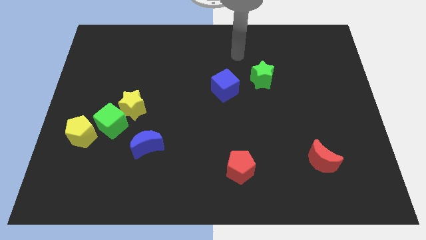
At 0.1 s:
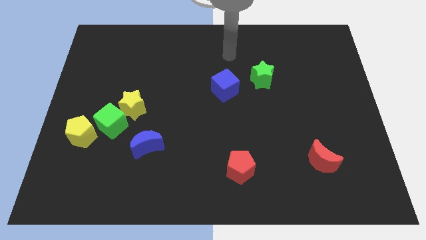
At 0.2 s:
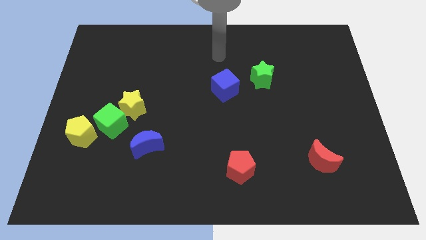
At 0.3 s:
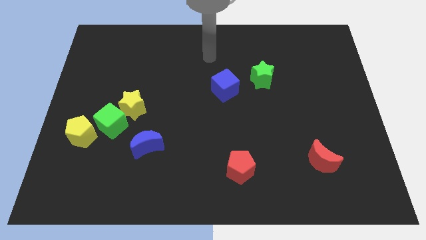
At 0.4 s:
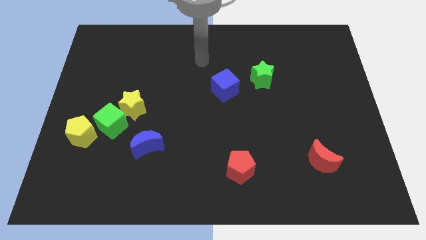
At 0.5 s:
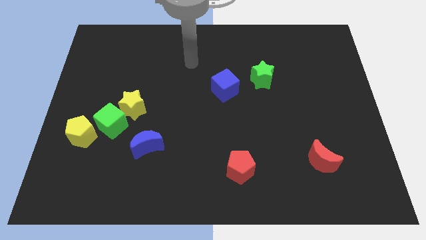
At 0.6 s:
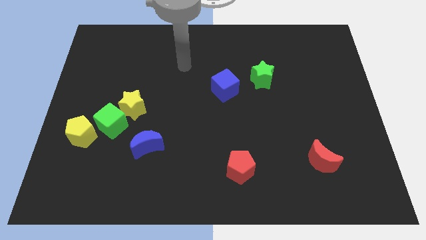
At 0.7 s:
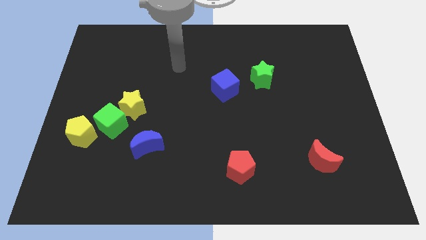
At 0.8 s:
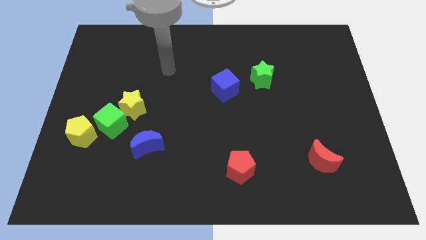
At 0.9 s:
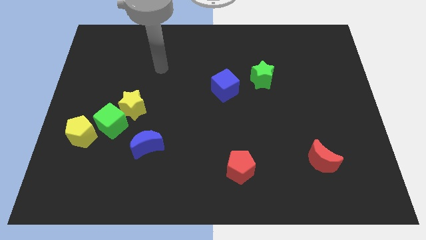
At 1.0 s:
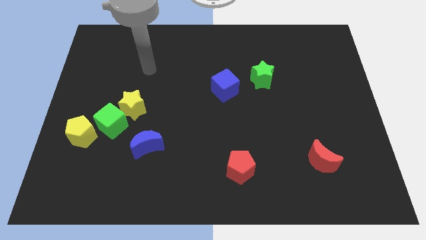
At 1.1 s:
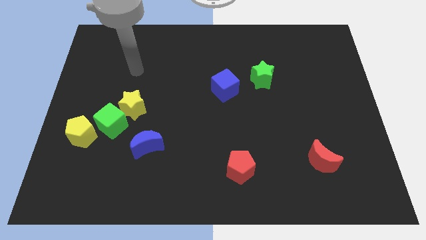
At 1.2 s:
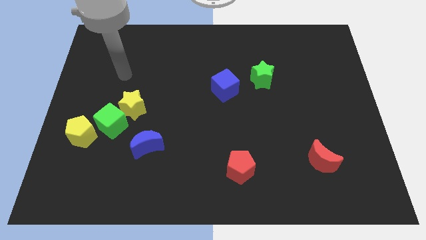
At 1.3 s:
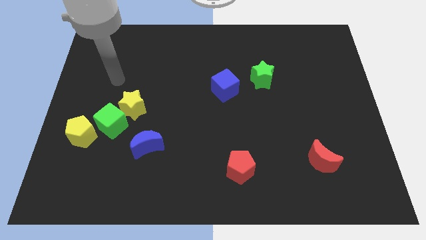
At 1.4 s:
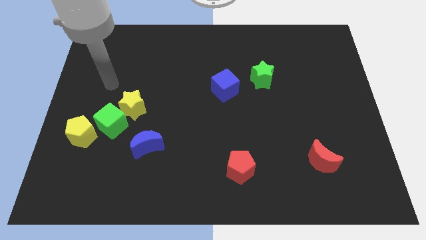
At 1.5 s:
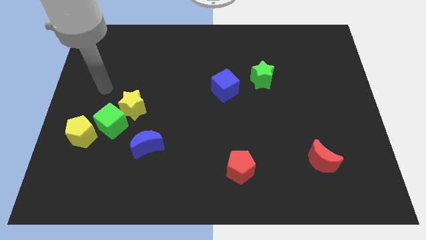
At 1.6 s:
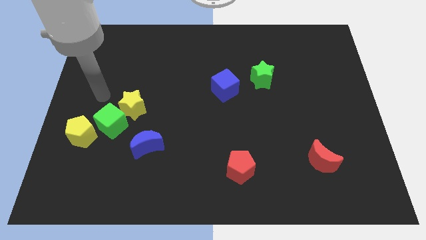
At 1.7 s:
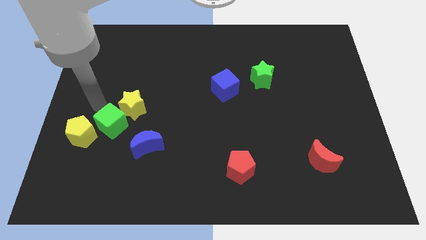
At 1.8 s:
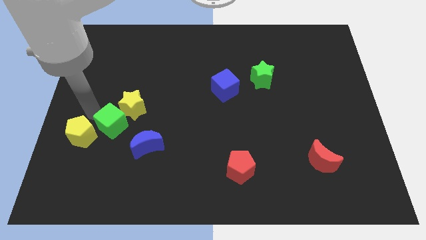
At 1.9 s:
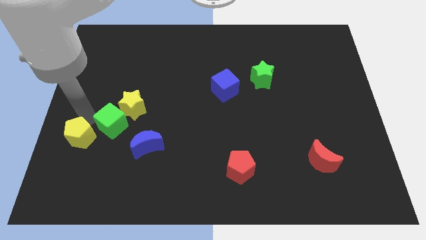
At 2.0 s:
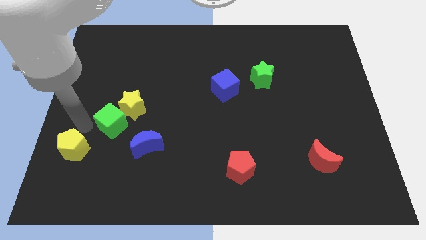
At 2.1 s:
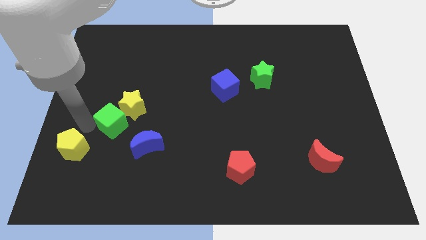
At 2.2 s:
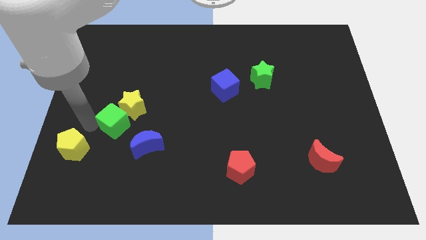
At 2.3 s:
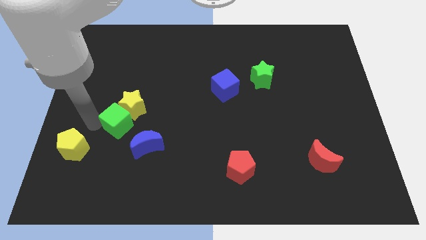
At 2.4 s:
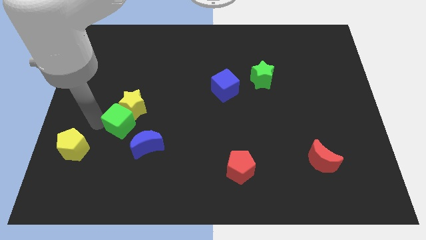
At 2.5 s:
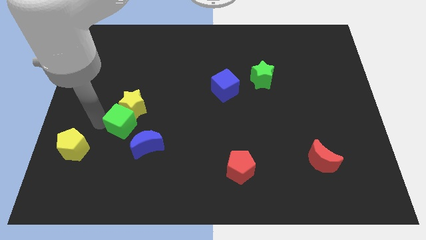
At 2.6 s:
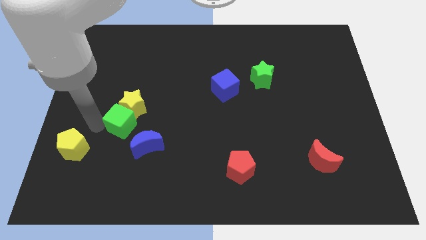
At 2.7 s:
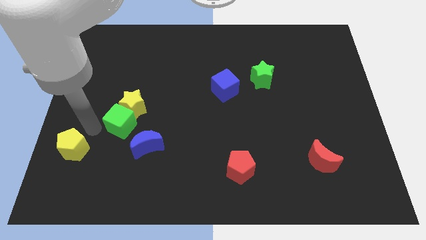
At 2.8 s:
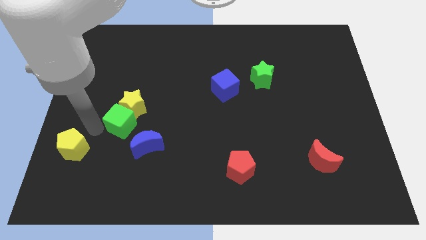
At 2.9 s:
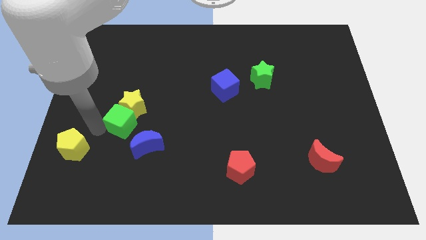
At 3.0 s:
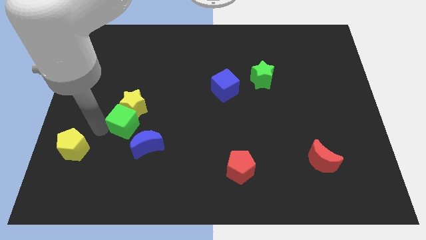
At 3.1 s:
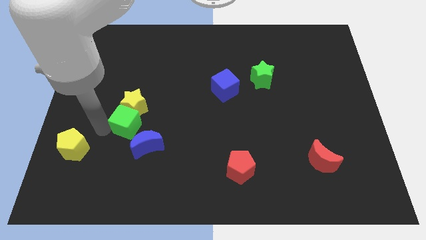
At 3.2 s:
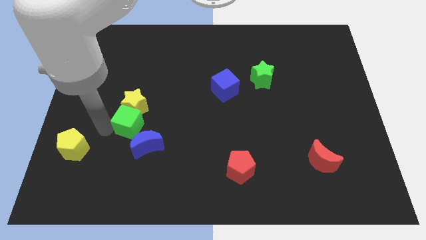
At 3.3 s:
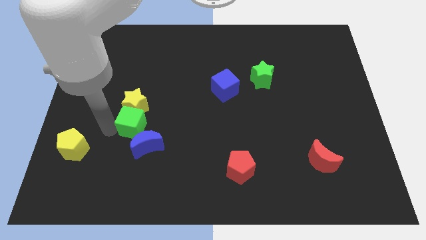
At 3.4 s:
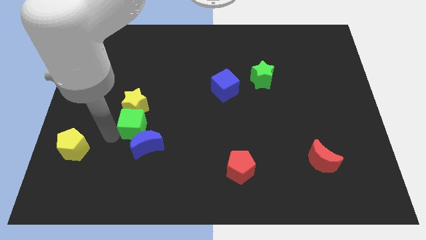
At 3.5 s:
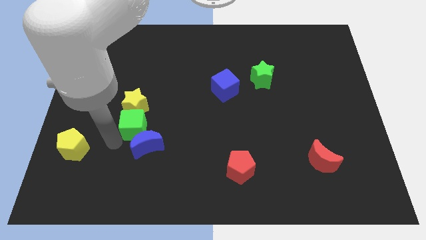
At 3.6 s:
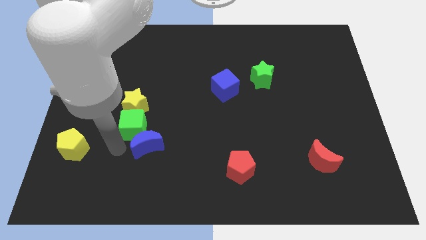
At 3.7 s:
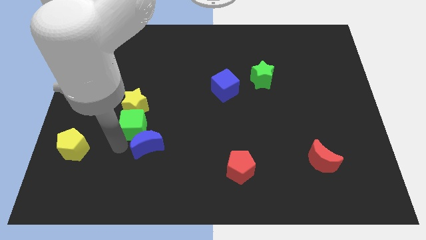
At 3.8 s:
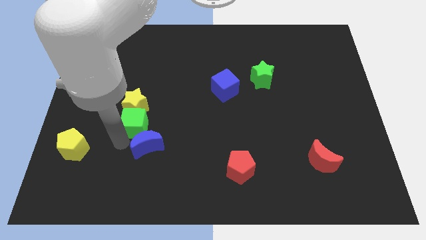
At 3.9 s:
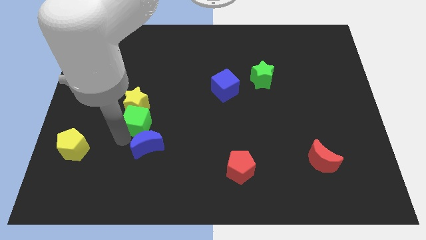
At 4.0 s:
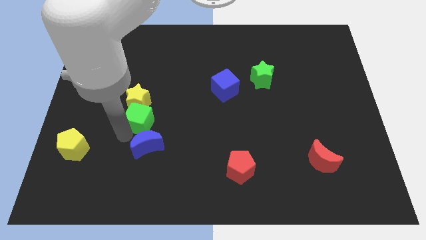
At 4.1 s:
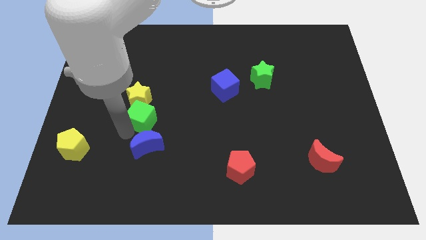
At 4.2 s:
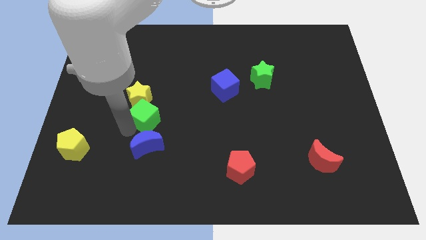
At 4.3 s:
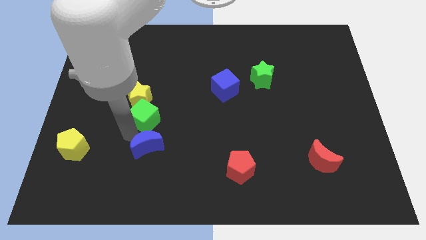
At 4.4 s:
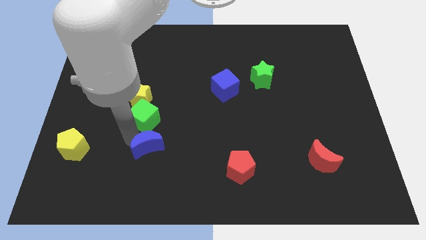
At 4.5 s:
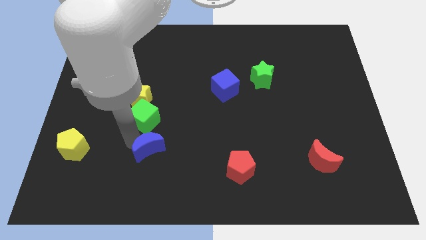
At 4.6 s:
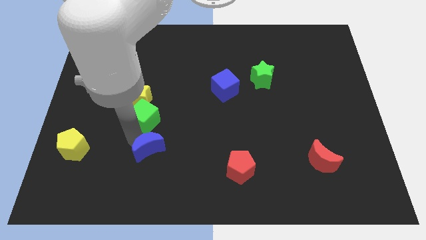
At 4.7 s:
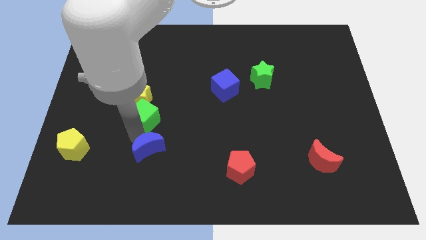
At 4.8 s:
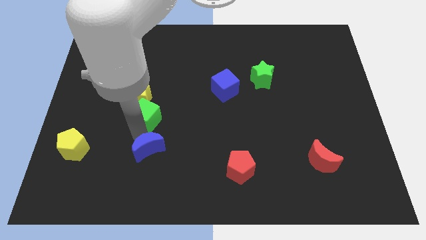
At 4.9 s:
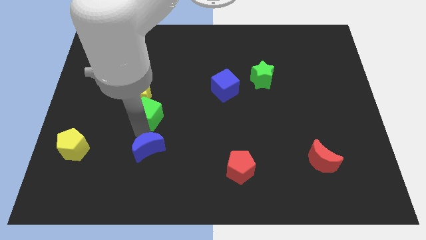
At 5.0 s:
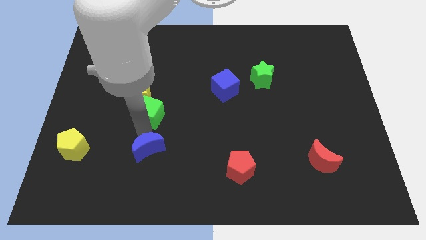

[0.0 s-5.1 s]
slide the green cube a bit diagonally up and to the right

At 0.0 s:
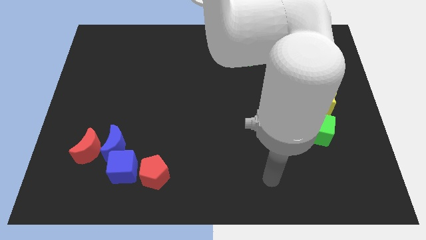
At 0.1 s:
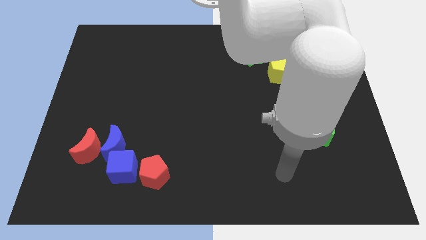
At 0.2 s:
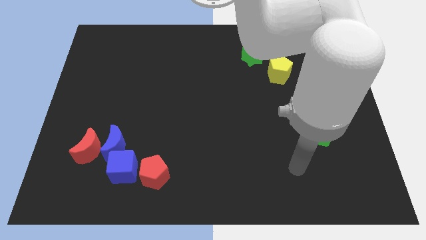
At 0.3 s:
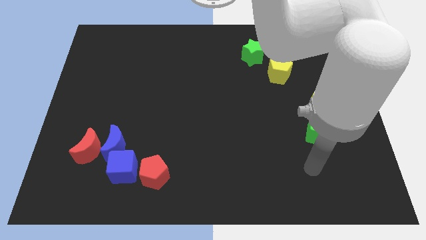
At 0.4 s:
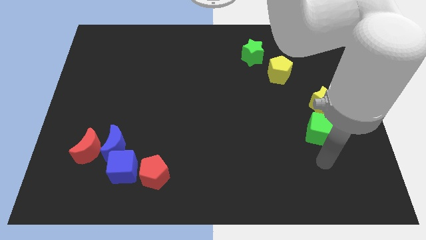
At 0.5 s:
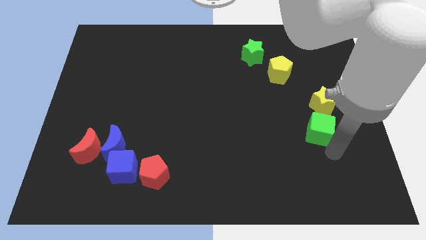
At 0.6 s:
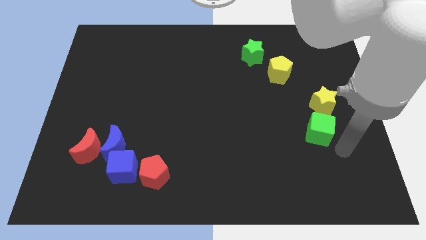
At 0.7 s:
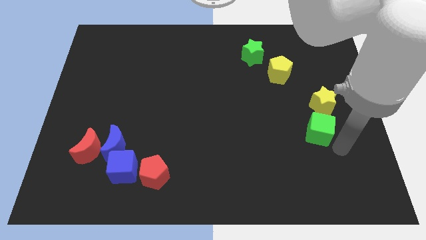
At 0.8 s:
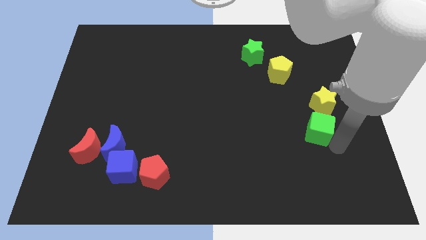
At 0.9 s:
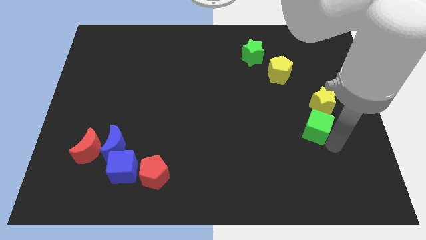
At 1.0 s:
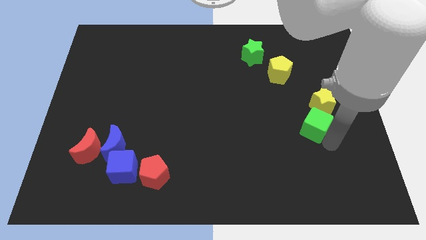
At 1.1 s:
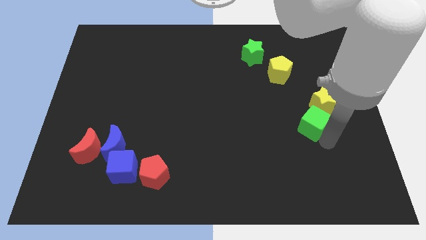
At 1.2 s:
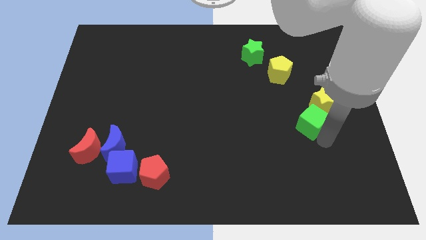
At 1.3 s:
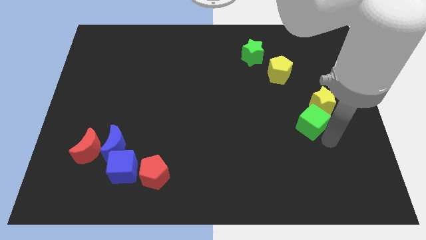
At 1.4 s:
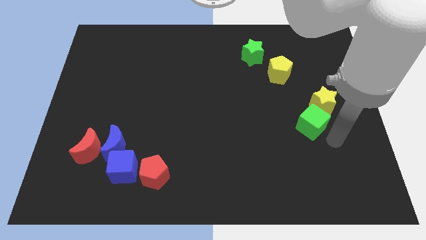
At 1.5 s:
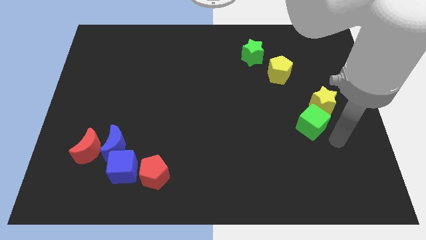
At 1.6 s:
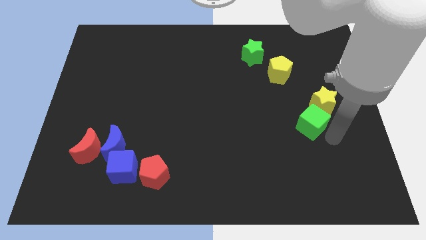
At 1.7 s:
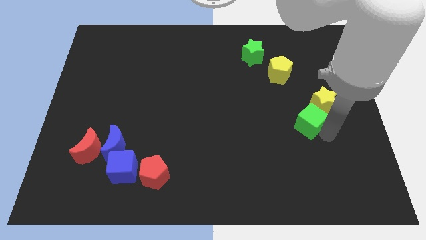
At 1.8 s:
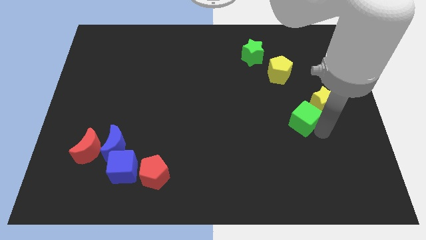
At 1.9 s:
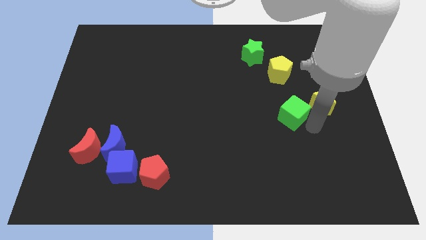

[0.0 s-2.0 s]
push the green cube diagonally upwards and to the left somewhat

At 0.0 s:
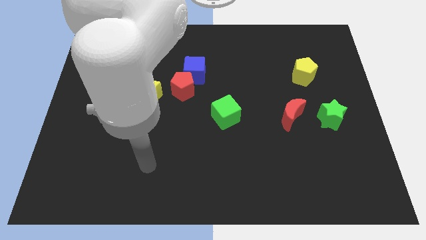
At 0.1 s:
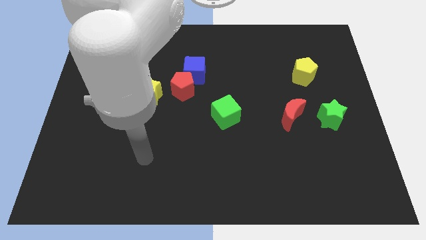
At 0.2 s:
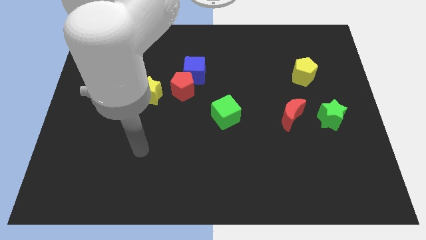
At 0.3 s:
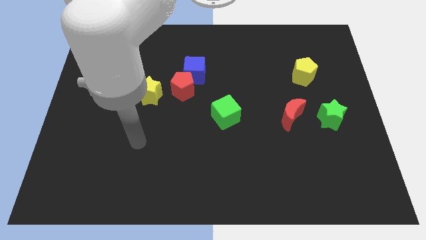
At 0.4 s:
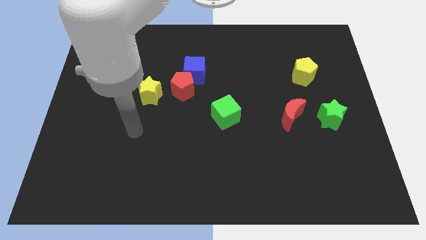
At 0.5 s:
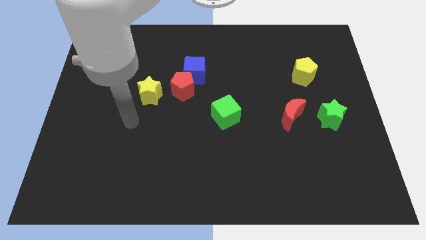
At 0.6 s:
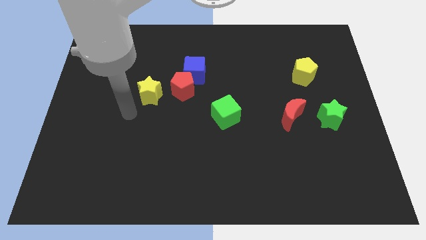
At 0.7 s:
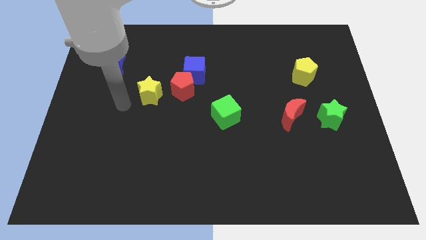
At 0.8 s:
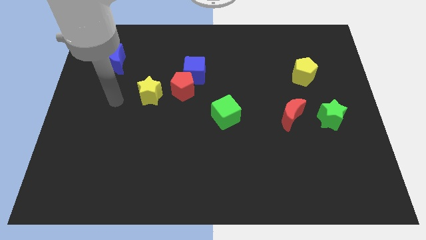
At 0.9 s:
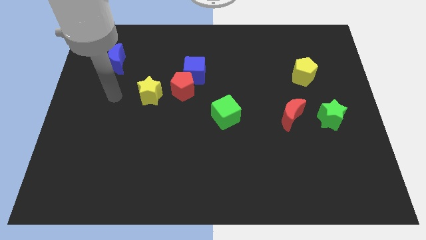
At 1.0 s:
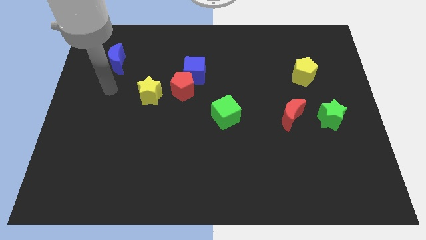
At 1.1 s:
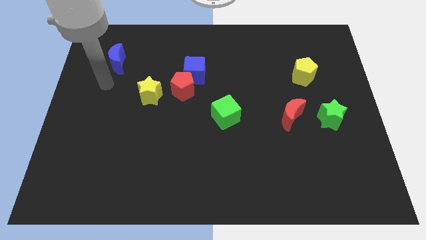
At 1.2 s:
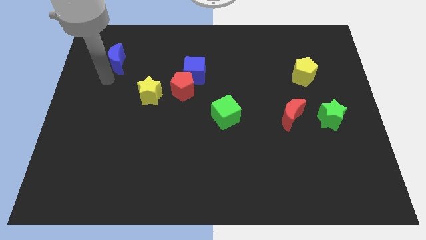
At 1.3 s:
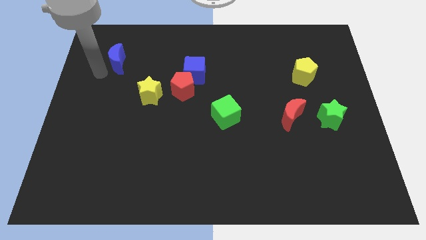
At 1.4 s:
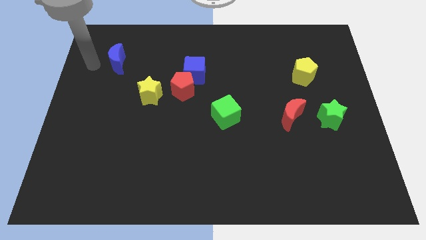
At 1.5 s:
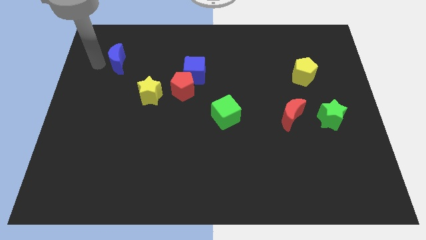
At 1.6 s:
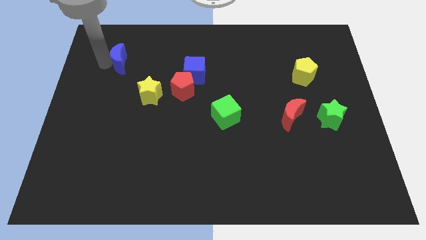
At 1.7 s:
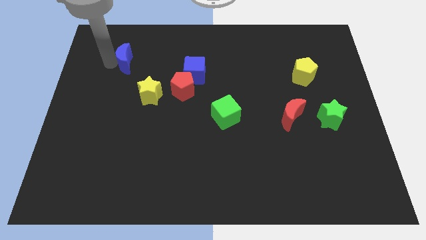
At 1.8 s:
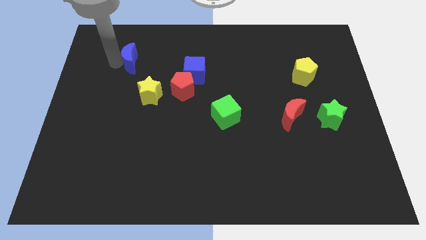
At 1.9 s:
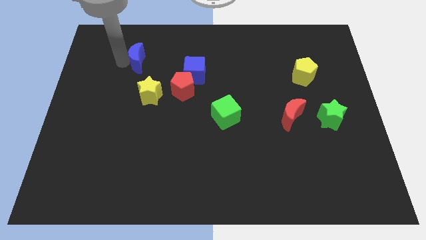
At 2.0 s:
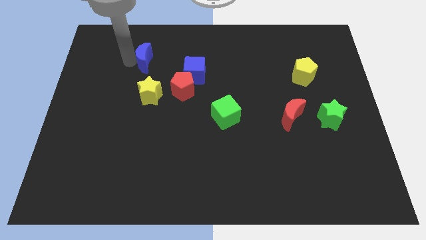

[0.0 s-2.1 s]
move the blue moon somewhat to the right
